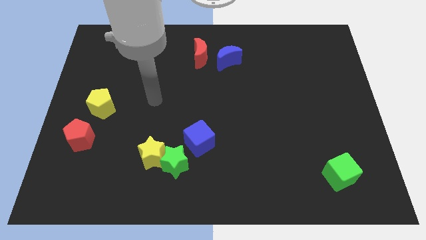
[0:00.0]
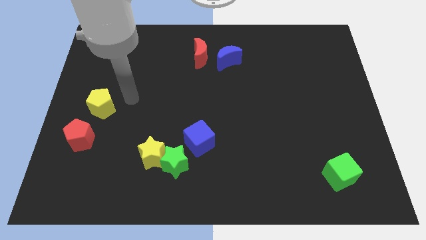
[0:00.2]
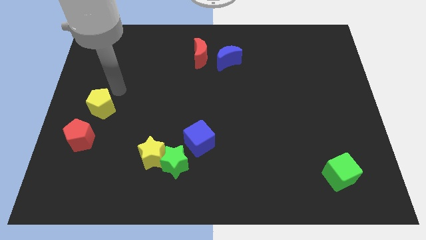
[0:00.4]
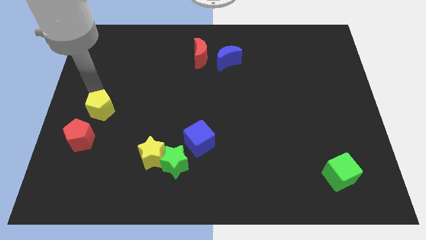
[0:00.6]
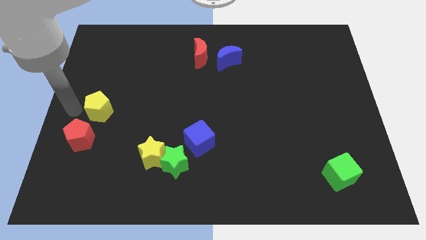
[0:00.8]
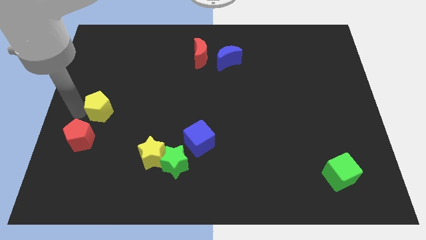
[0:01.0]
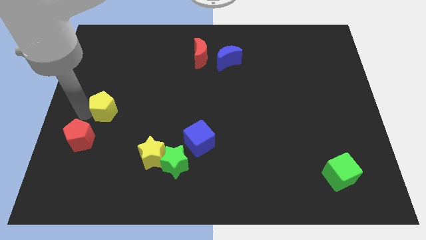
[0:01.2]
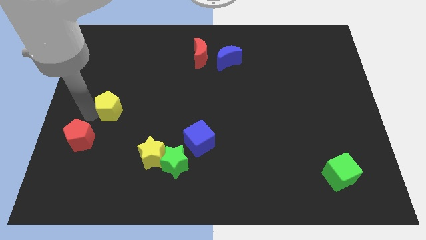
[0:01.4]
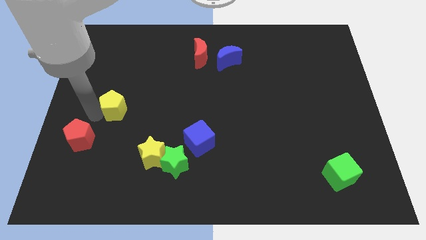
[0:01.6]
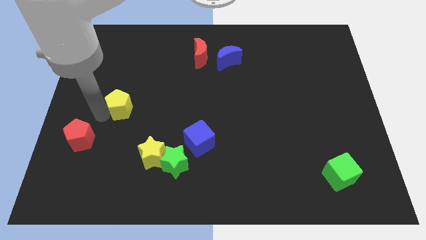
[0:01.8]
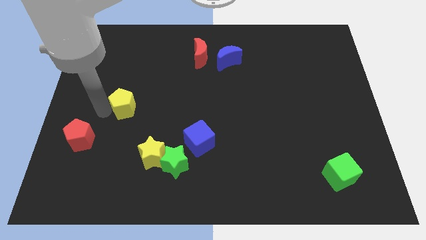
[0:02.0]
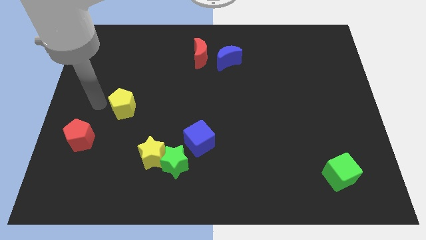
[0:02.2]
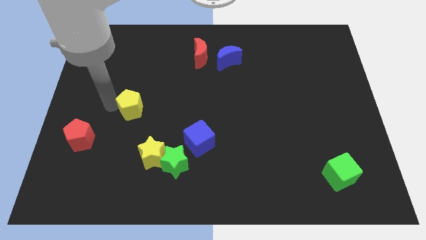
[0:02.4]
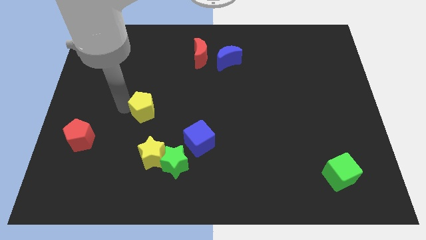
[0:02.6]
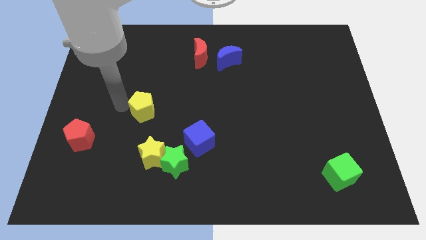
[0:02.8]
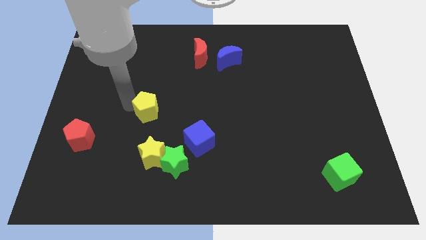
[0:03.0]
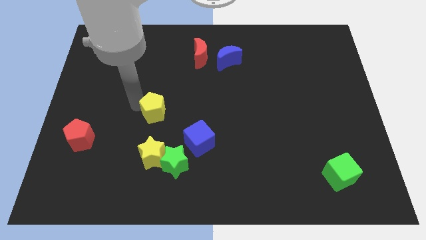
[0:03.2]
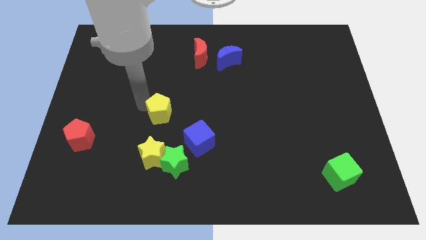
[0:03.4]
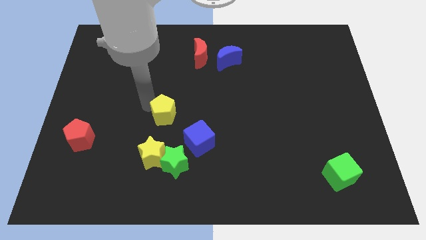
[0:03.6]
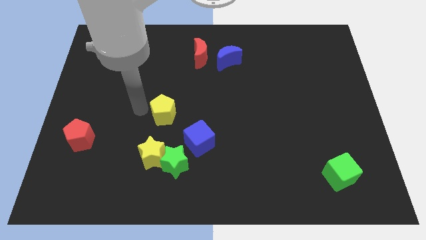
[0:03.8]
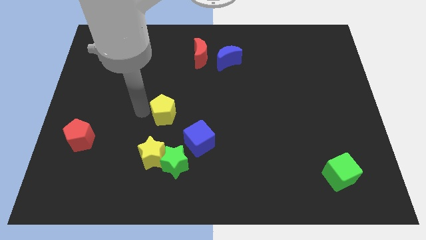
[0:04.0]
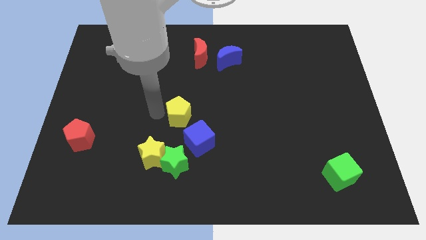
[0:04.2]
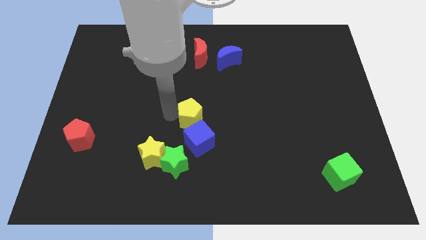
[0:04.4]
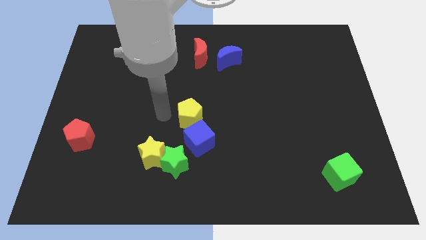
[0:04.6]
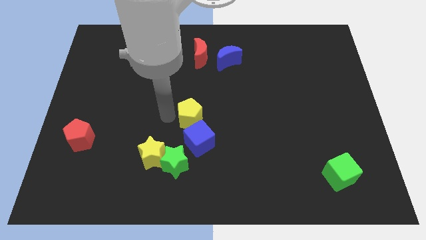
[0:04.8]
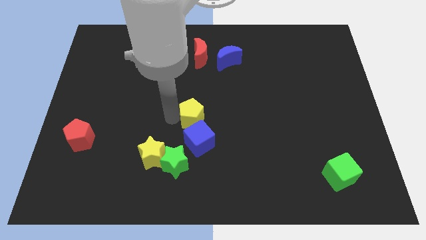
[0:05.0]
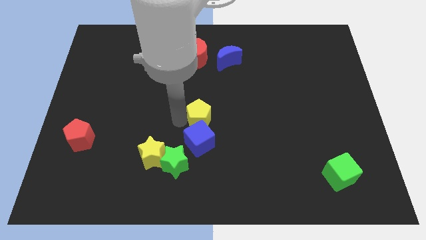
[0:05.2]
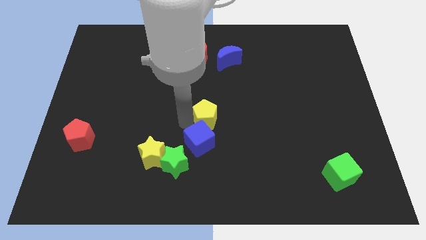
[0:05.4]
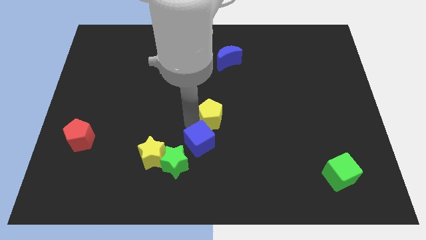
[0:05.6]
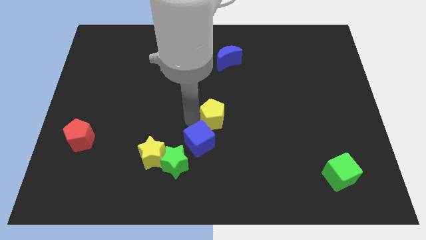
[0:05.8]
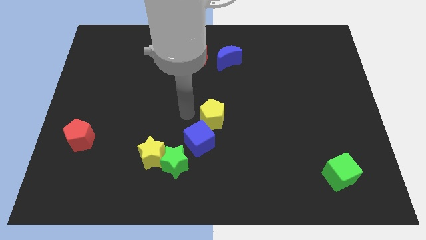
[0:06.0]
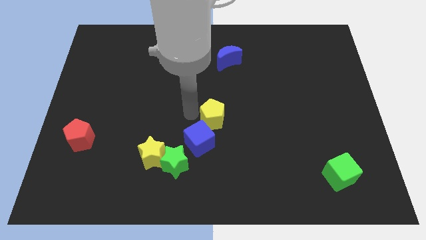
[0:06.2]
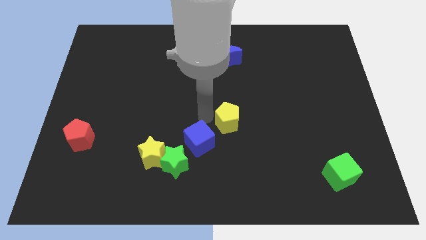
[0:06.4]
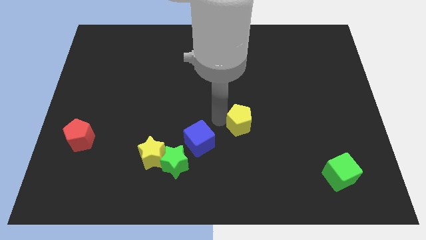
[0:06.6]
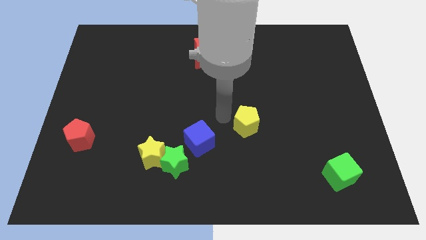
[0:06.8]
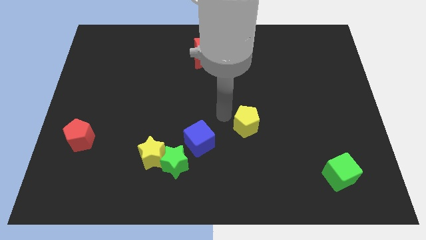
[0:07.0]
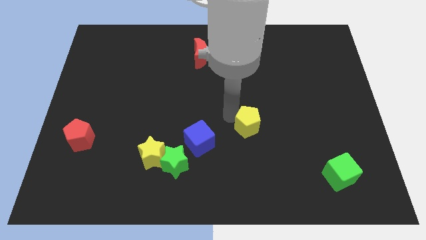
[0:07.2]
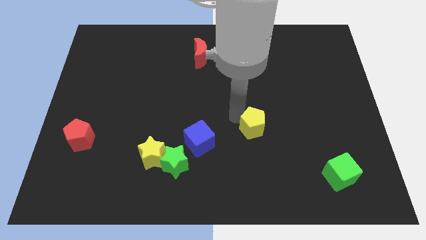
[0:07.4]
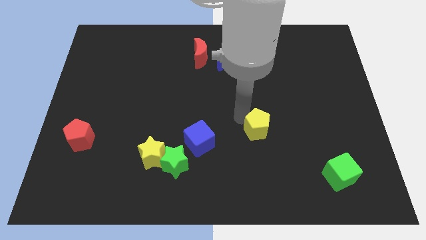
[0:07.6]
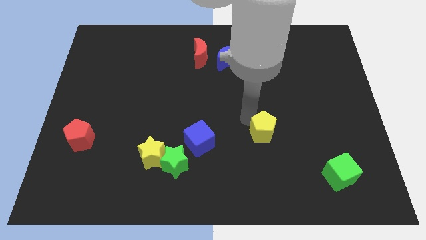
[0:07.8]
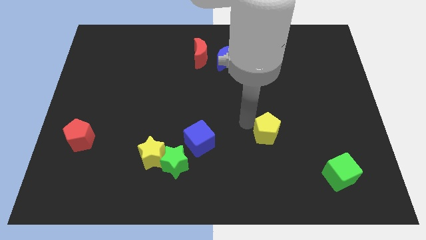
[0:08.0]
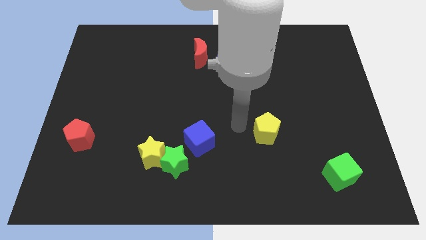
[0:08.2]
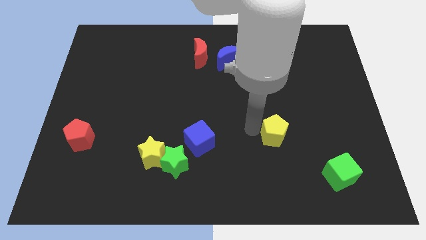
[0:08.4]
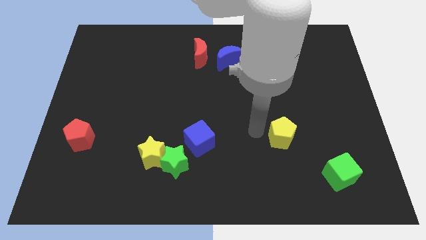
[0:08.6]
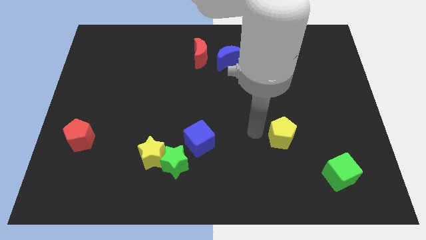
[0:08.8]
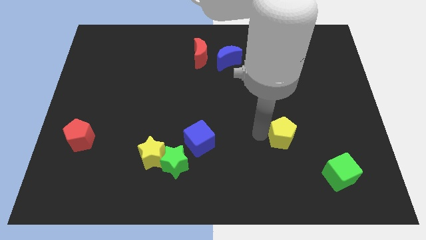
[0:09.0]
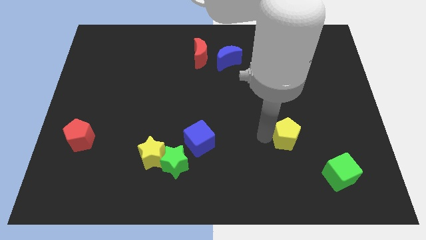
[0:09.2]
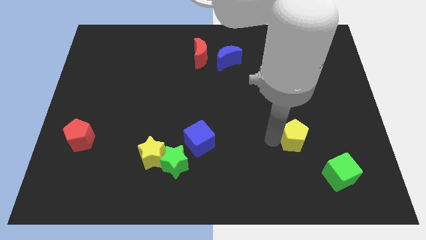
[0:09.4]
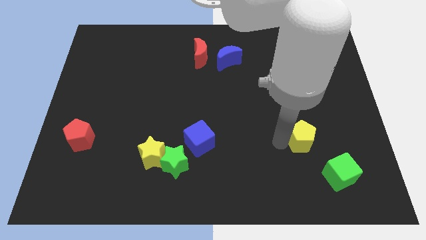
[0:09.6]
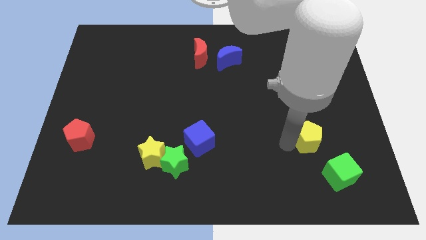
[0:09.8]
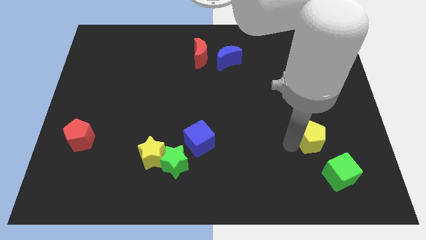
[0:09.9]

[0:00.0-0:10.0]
push the yellow pentagon to the top side of the green cube

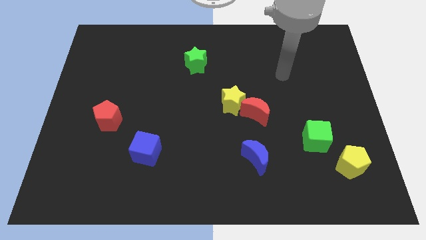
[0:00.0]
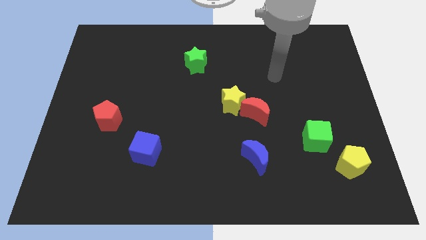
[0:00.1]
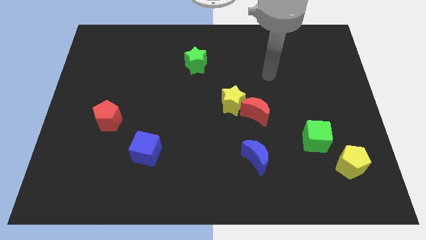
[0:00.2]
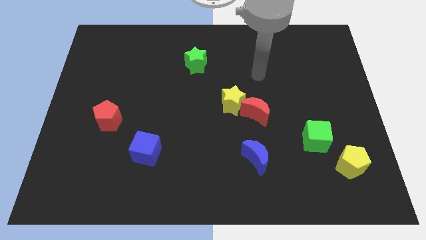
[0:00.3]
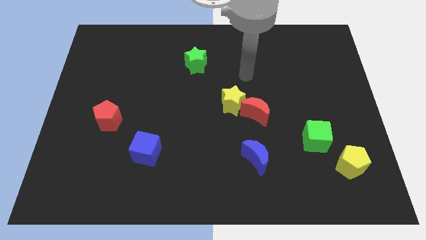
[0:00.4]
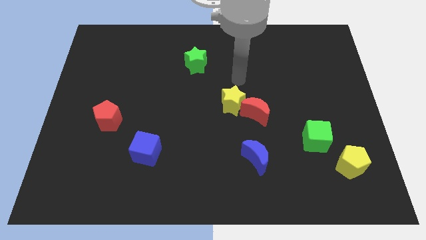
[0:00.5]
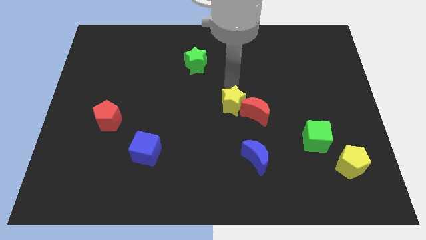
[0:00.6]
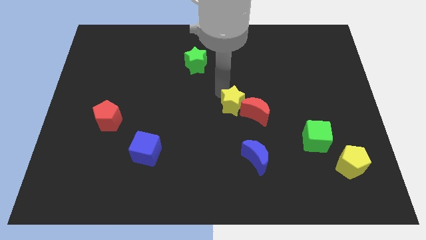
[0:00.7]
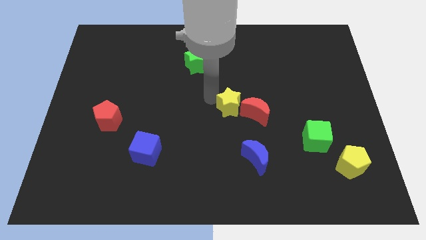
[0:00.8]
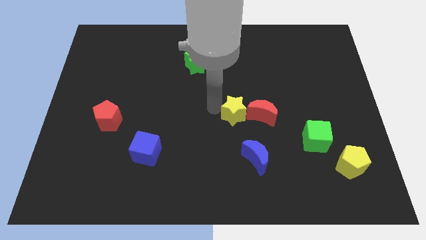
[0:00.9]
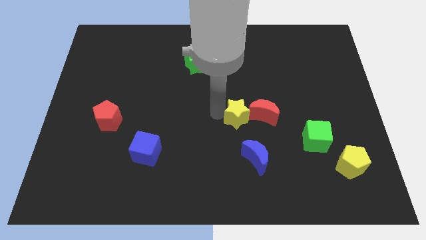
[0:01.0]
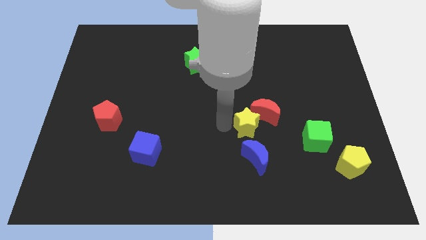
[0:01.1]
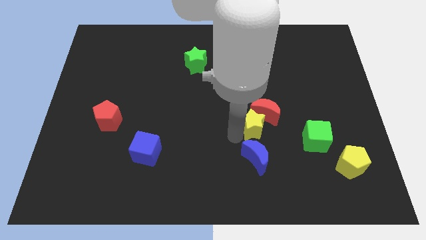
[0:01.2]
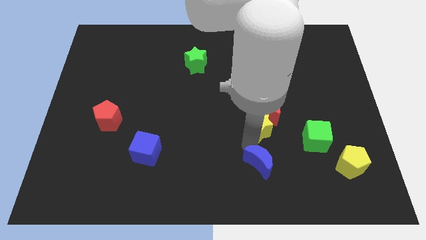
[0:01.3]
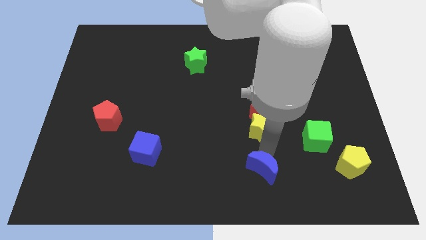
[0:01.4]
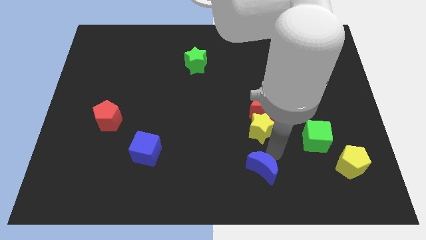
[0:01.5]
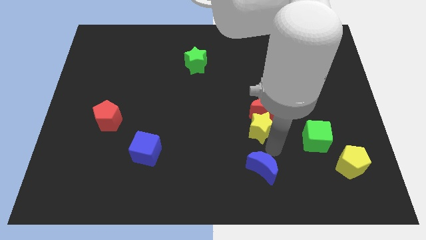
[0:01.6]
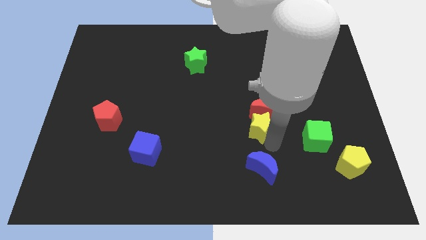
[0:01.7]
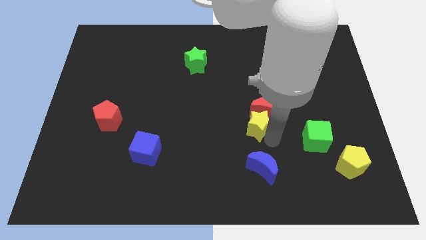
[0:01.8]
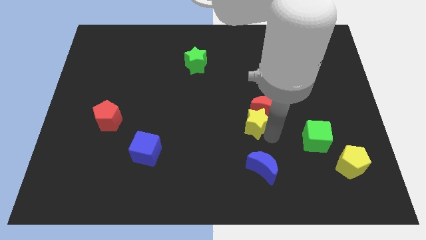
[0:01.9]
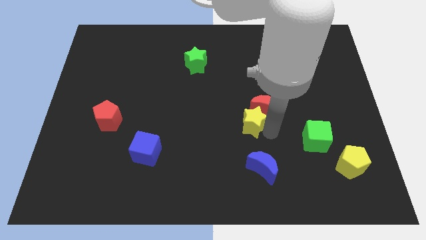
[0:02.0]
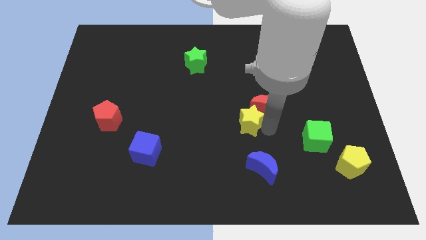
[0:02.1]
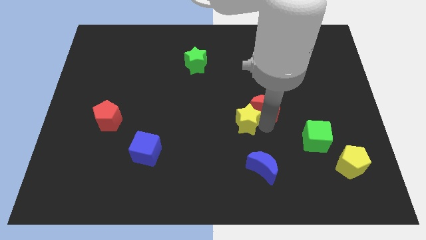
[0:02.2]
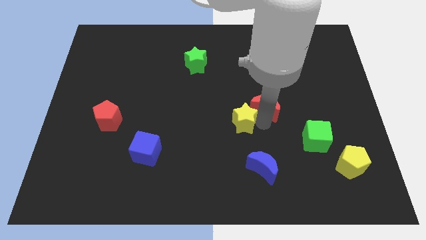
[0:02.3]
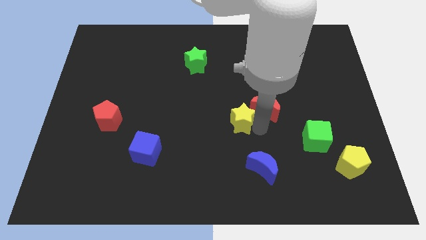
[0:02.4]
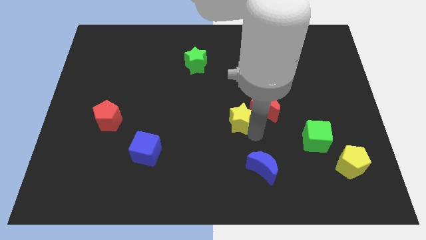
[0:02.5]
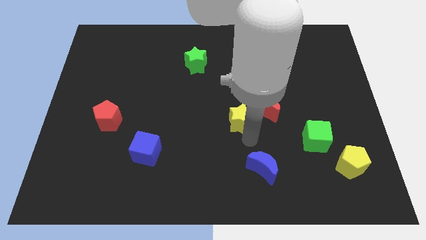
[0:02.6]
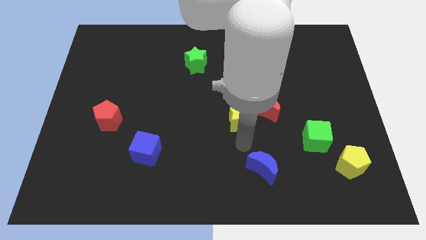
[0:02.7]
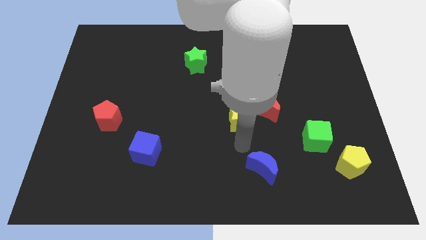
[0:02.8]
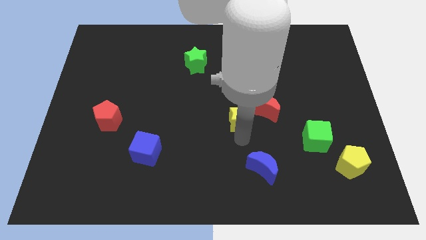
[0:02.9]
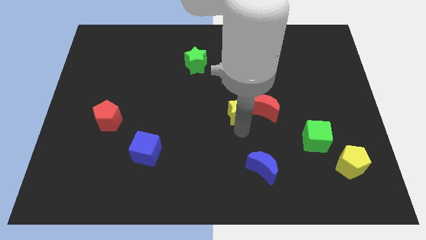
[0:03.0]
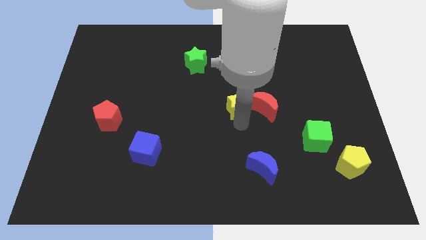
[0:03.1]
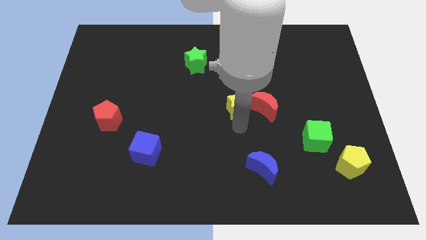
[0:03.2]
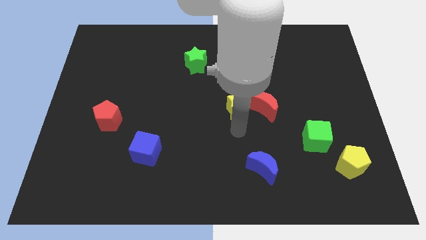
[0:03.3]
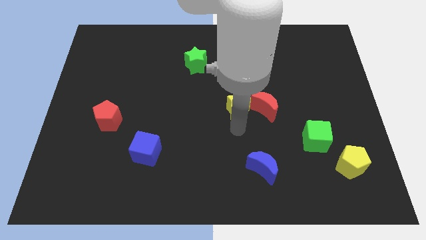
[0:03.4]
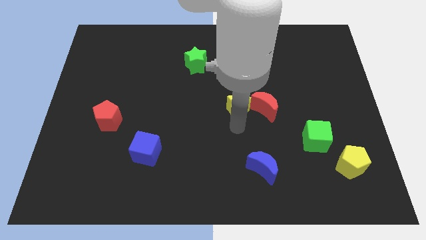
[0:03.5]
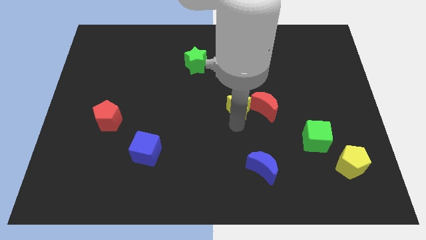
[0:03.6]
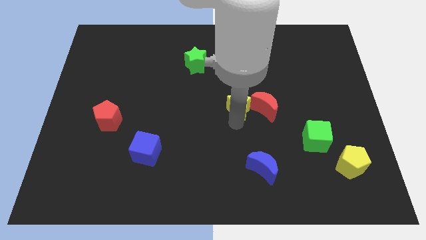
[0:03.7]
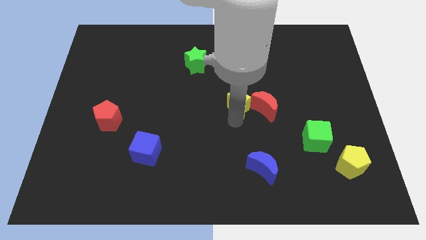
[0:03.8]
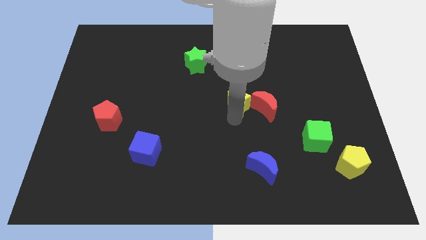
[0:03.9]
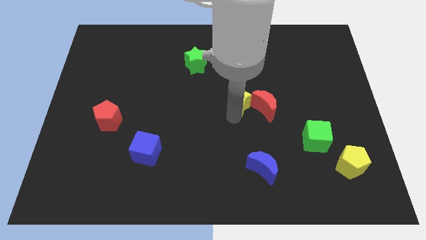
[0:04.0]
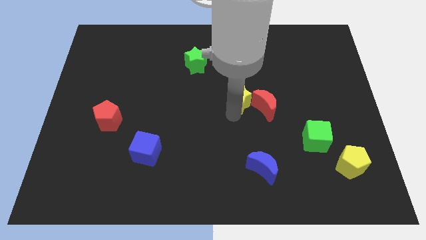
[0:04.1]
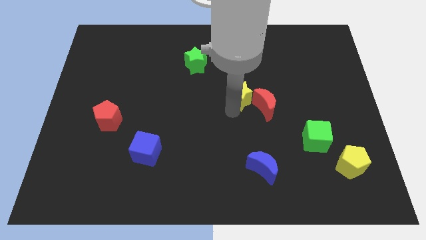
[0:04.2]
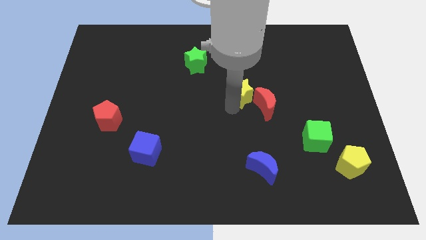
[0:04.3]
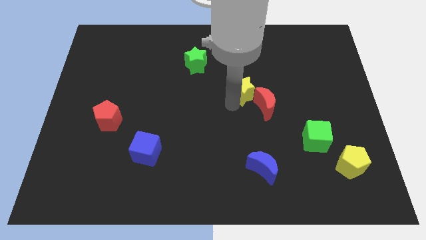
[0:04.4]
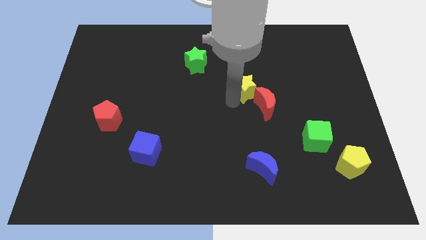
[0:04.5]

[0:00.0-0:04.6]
push the yellow star to the top of the red moon
